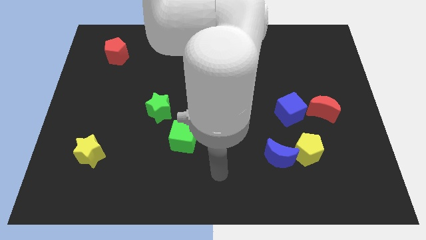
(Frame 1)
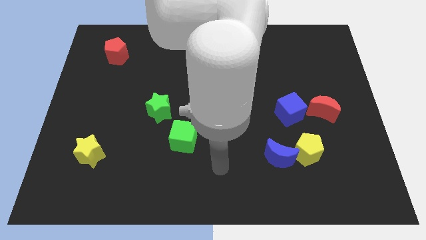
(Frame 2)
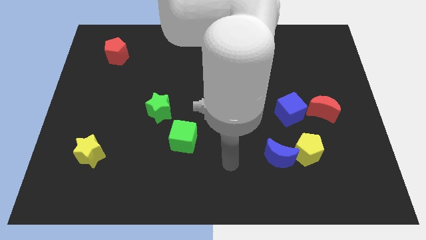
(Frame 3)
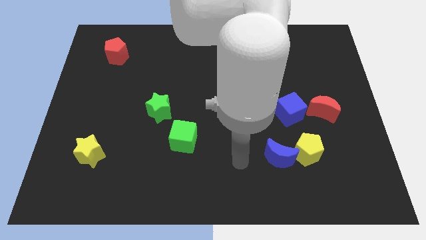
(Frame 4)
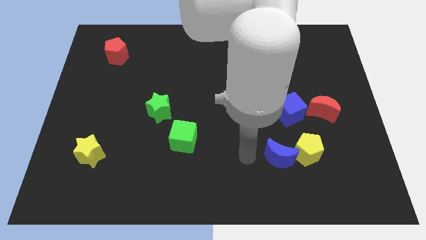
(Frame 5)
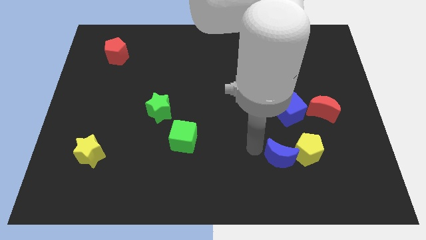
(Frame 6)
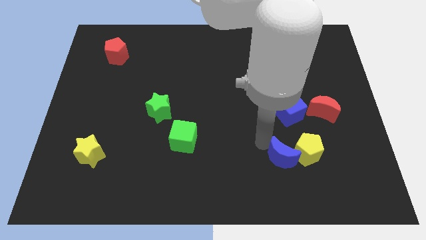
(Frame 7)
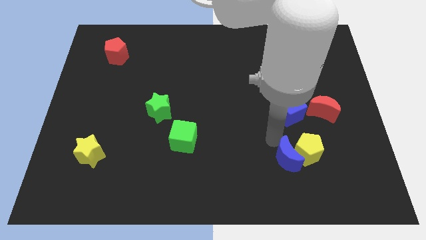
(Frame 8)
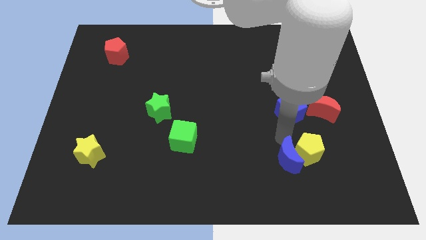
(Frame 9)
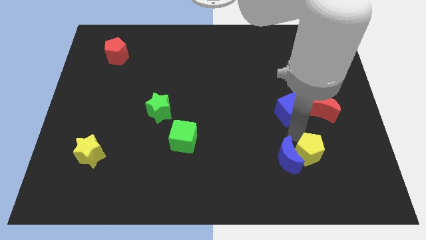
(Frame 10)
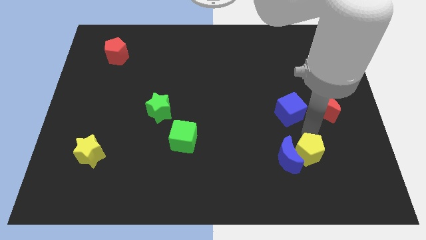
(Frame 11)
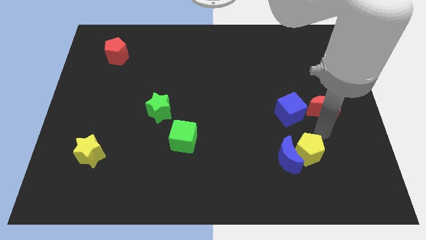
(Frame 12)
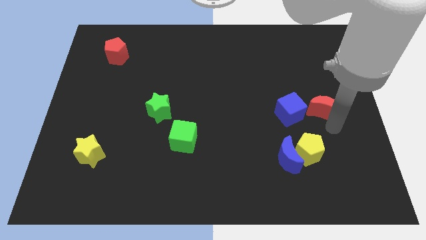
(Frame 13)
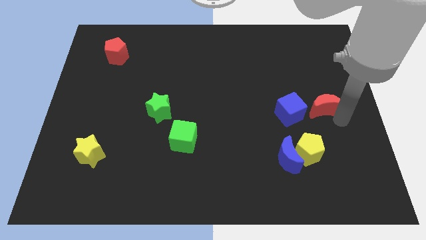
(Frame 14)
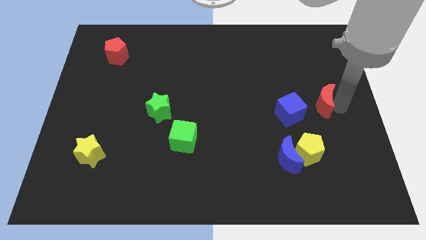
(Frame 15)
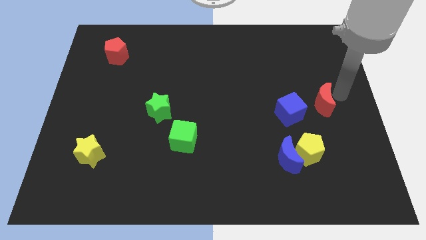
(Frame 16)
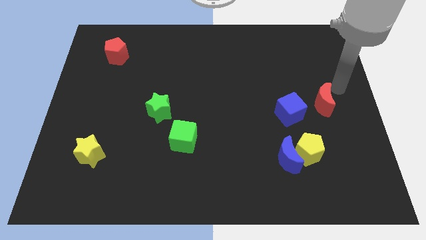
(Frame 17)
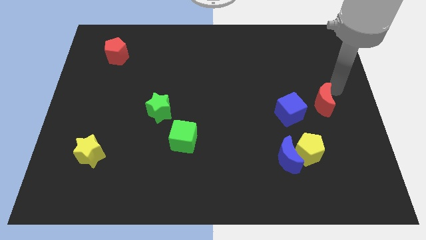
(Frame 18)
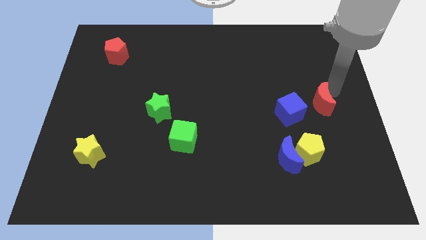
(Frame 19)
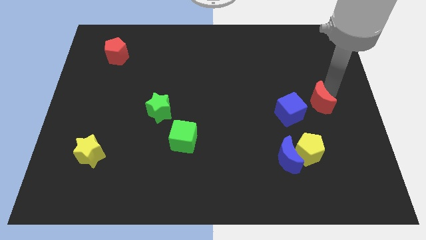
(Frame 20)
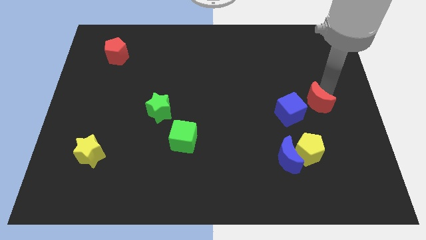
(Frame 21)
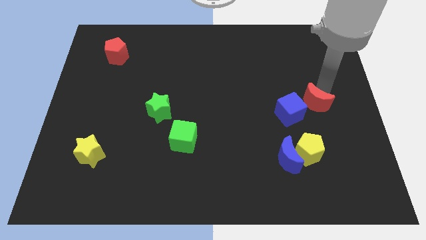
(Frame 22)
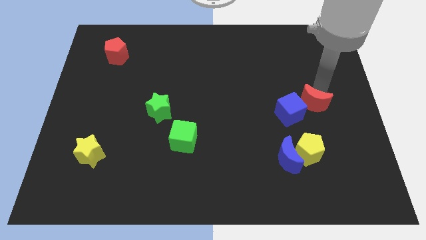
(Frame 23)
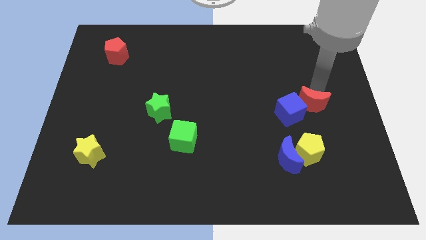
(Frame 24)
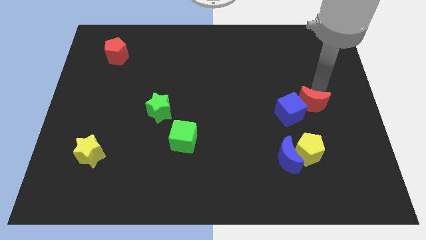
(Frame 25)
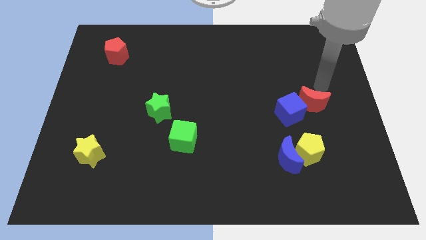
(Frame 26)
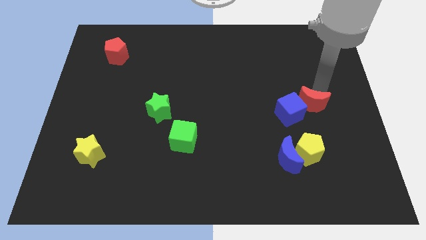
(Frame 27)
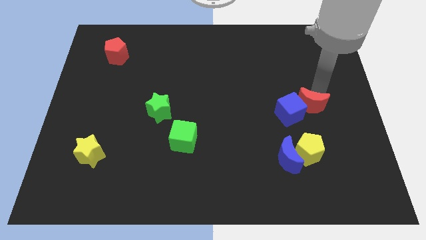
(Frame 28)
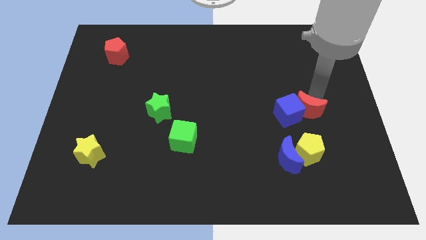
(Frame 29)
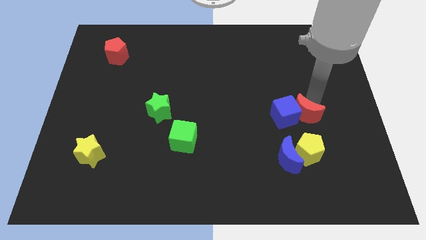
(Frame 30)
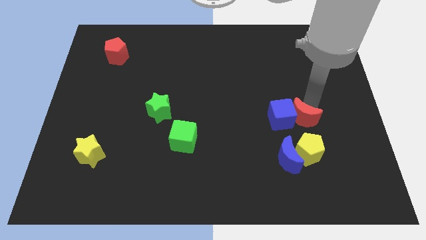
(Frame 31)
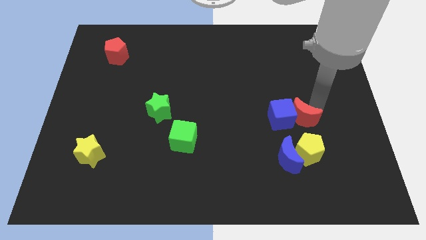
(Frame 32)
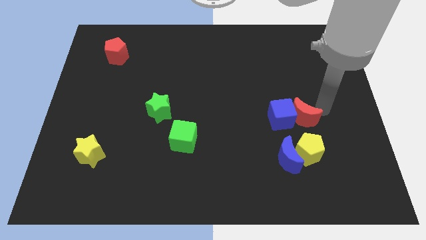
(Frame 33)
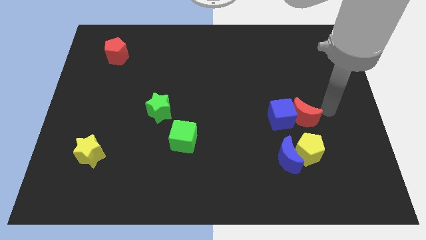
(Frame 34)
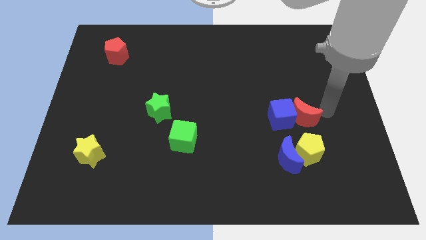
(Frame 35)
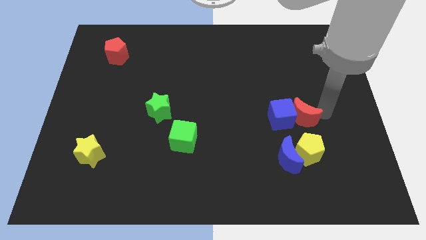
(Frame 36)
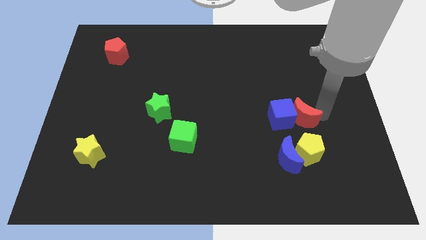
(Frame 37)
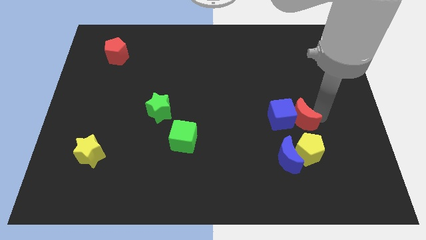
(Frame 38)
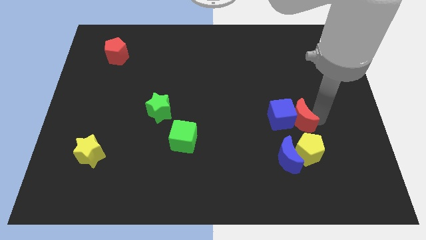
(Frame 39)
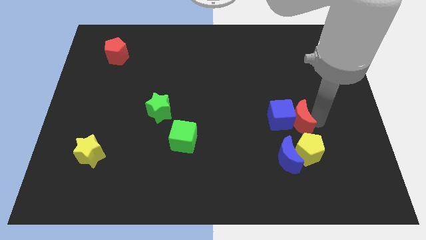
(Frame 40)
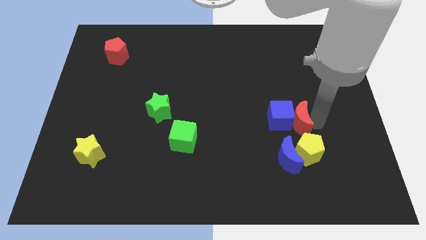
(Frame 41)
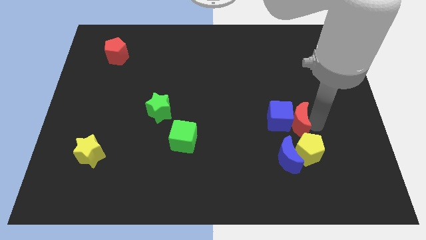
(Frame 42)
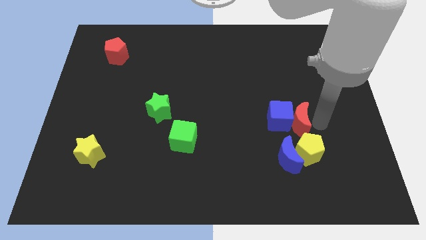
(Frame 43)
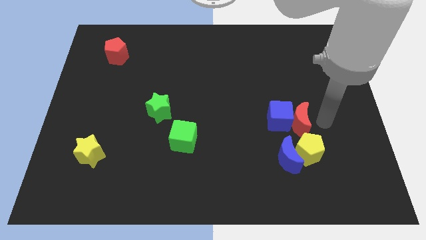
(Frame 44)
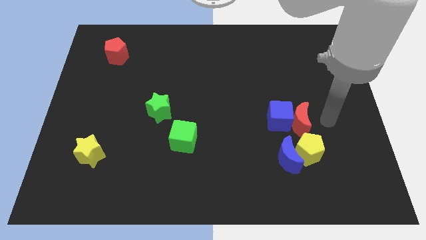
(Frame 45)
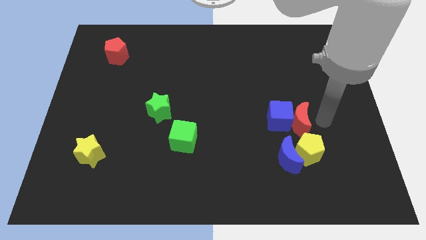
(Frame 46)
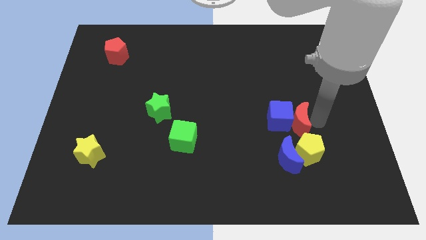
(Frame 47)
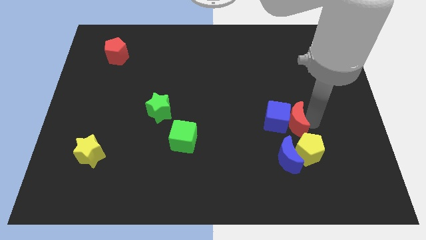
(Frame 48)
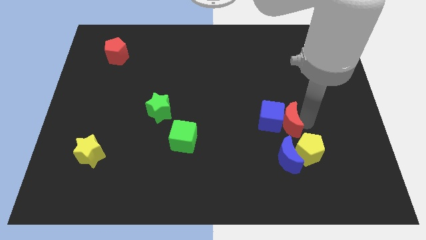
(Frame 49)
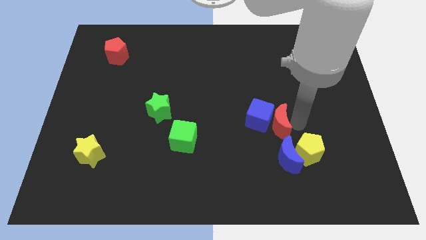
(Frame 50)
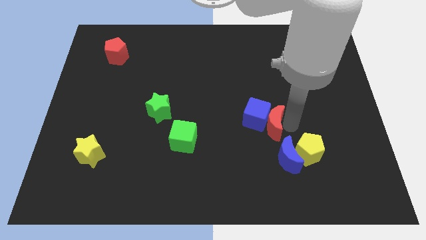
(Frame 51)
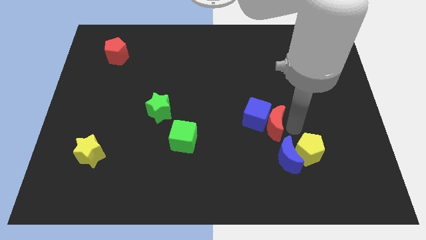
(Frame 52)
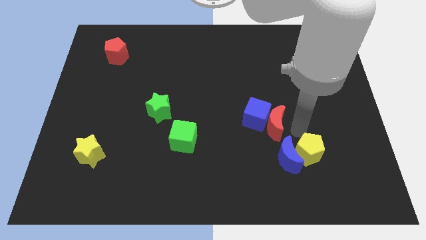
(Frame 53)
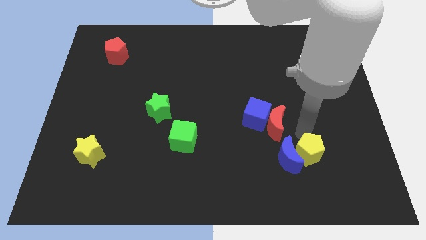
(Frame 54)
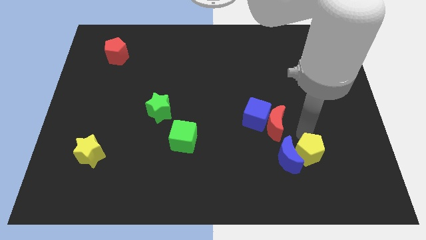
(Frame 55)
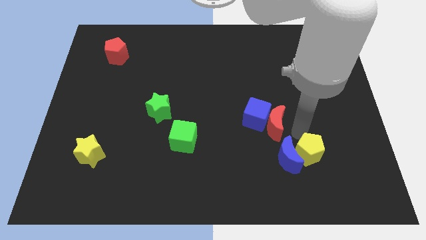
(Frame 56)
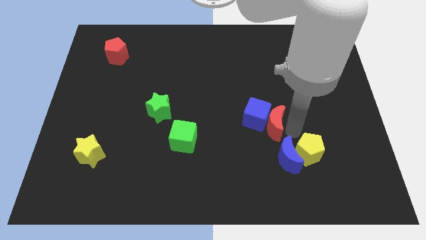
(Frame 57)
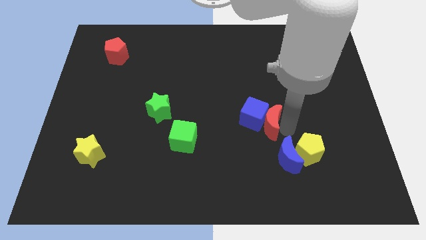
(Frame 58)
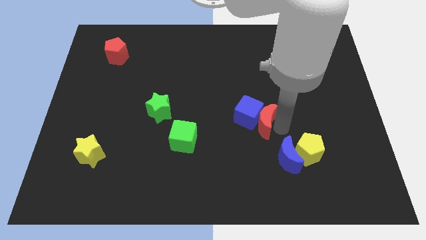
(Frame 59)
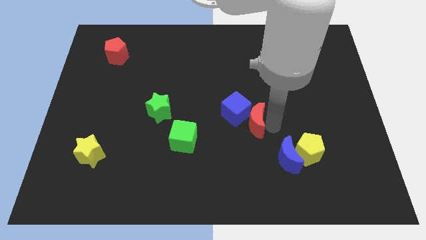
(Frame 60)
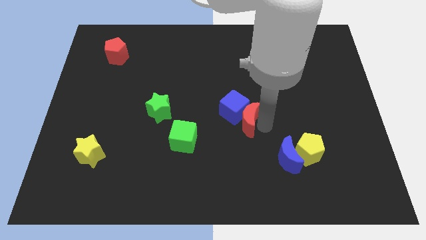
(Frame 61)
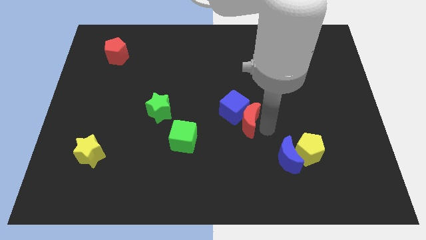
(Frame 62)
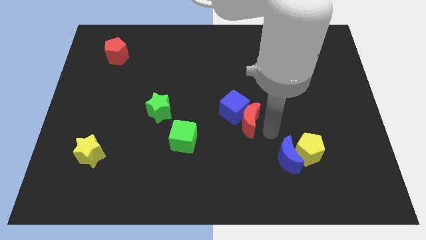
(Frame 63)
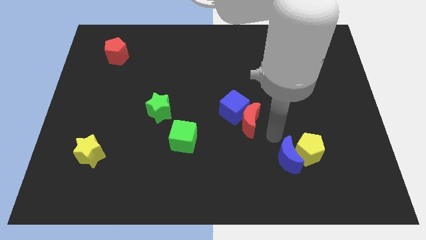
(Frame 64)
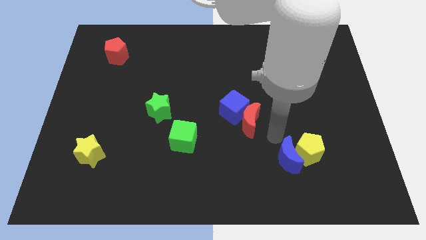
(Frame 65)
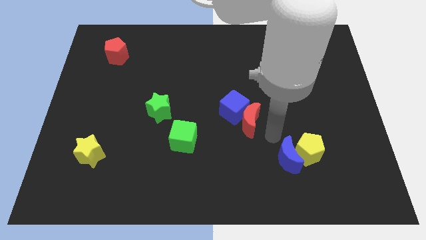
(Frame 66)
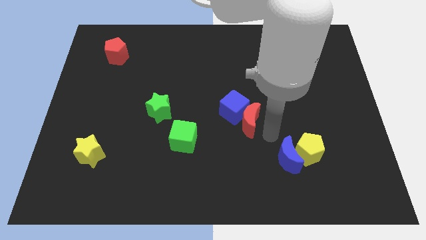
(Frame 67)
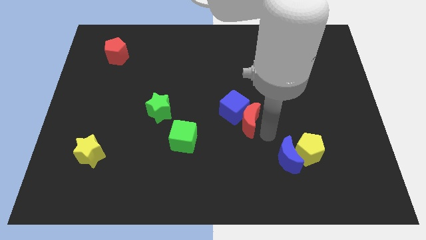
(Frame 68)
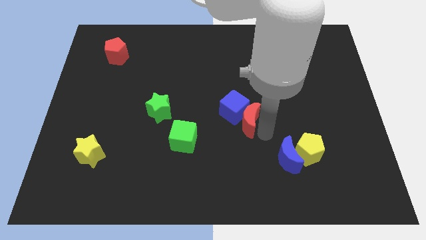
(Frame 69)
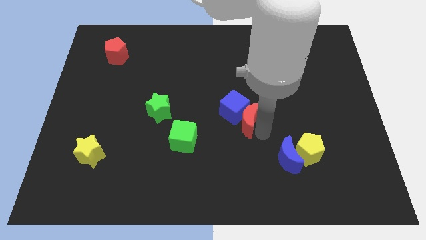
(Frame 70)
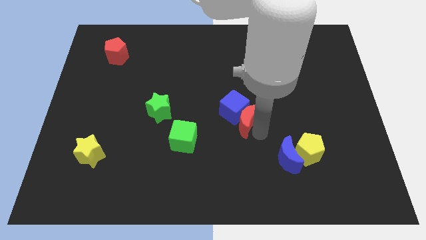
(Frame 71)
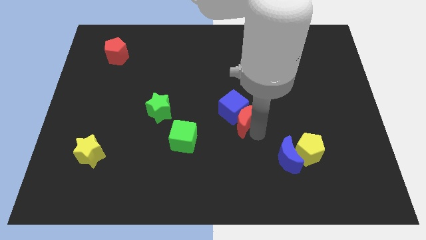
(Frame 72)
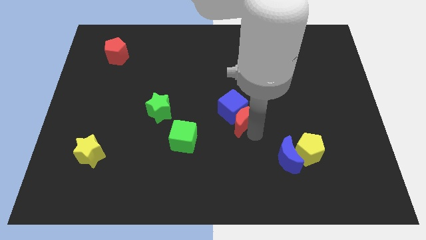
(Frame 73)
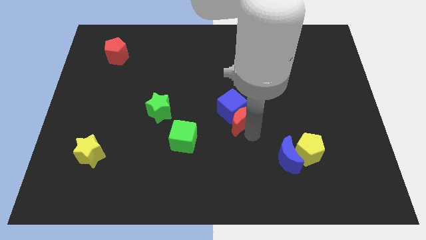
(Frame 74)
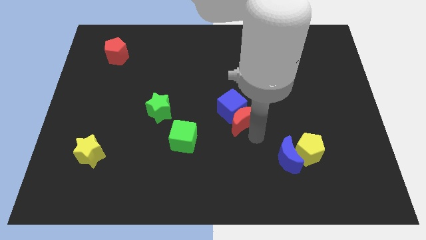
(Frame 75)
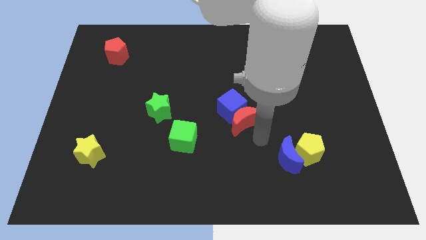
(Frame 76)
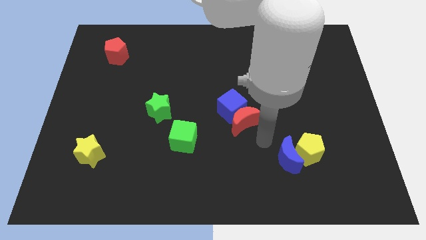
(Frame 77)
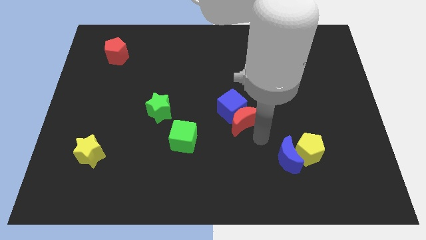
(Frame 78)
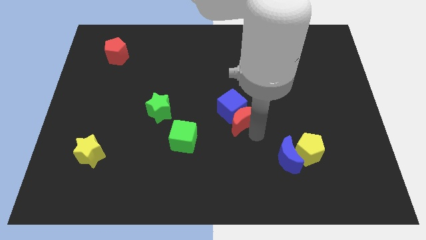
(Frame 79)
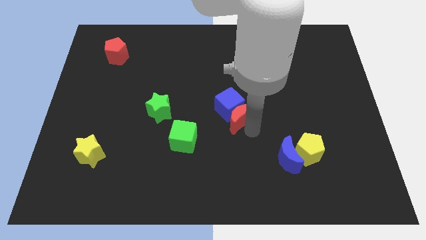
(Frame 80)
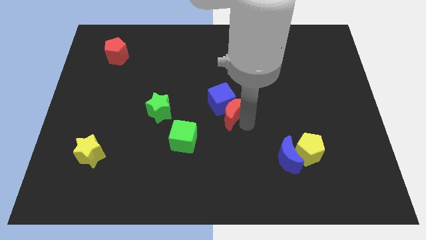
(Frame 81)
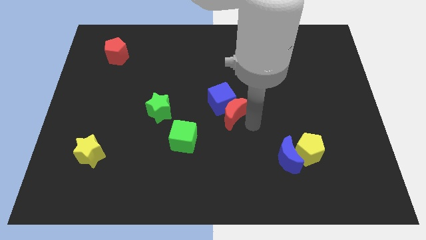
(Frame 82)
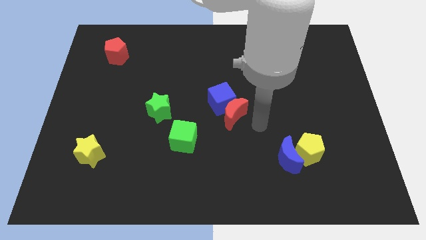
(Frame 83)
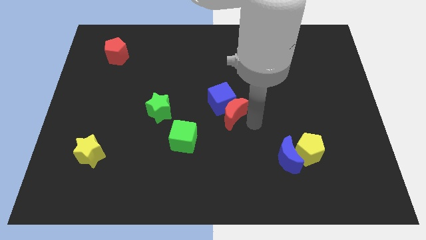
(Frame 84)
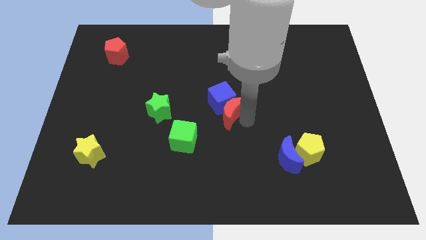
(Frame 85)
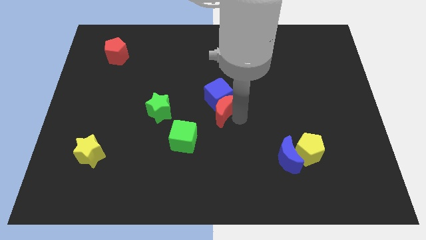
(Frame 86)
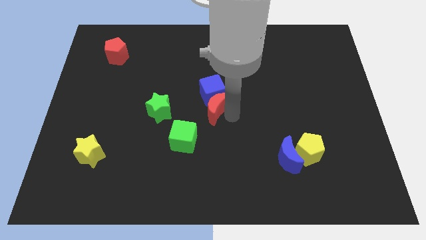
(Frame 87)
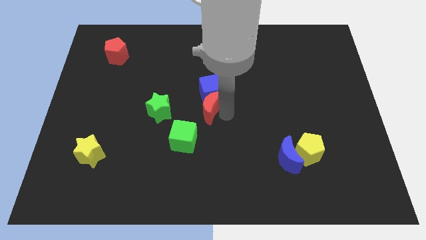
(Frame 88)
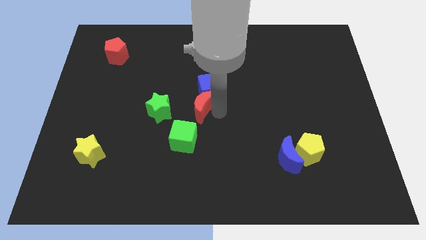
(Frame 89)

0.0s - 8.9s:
push the red moon above the green cube
